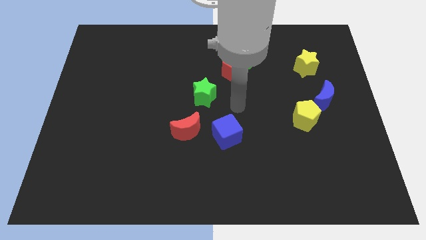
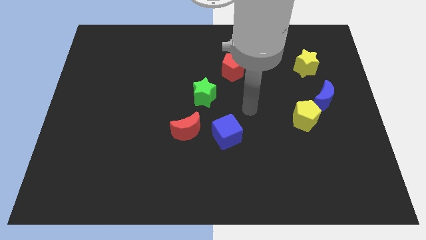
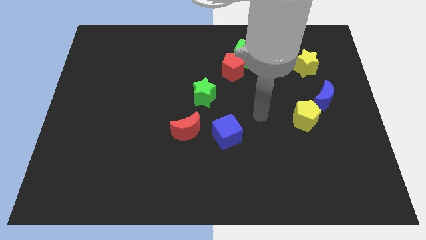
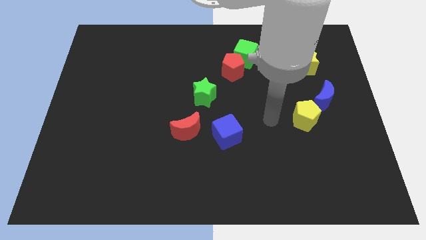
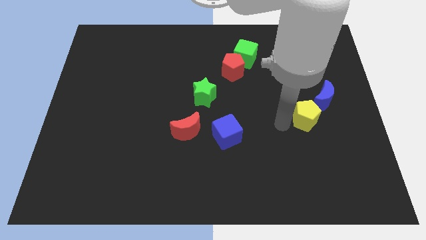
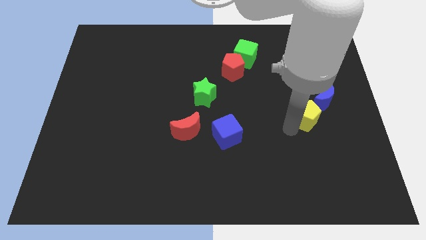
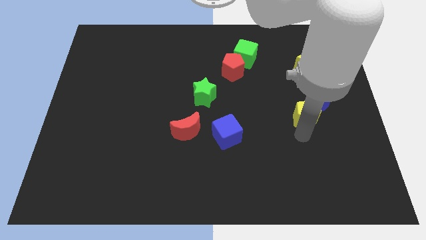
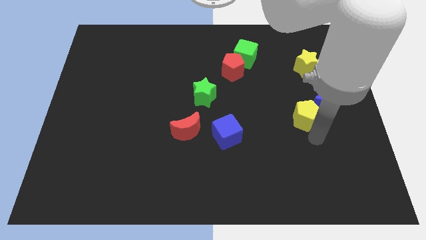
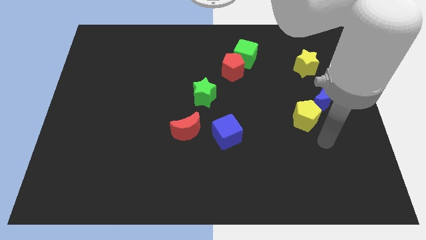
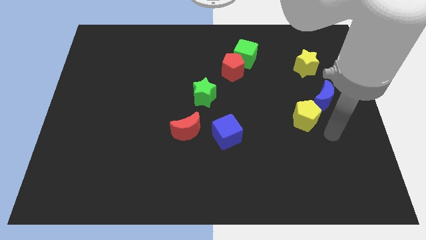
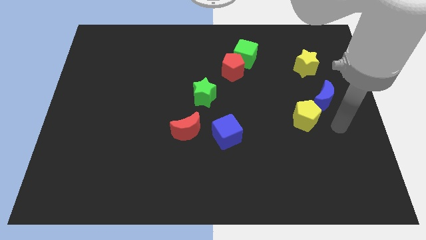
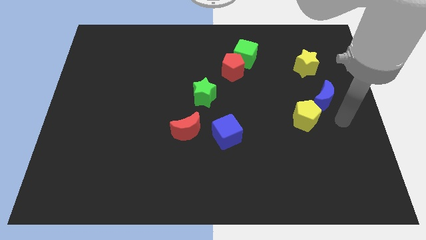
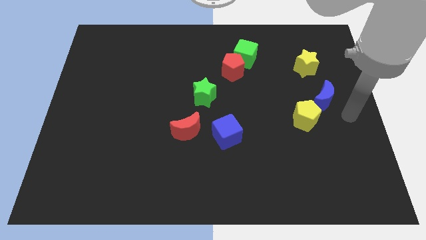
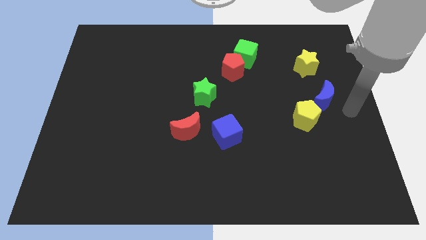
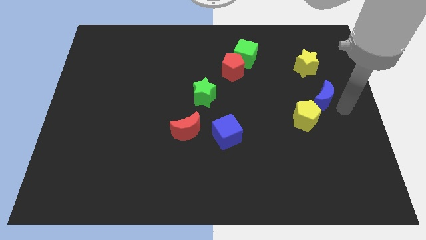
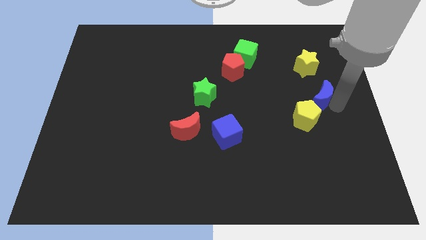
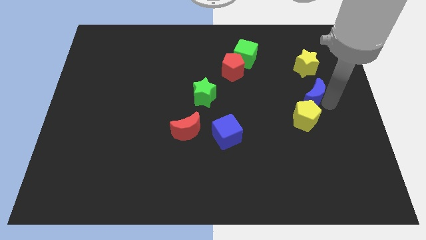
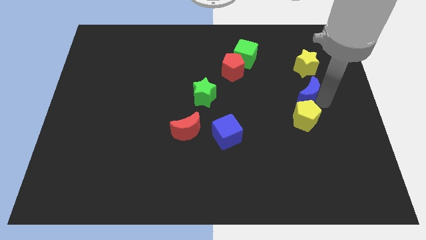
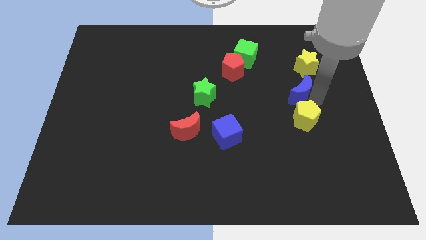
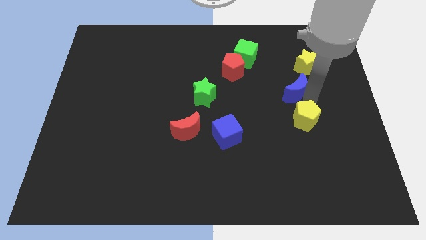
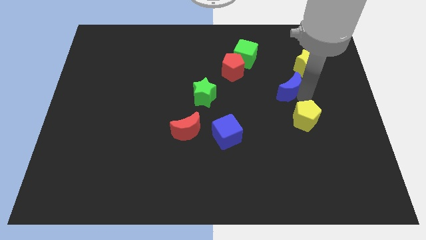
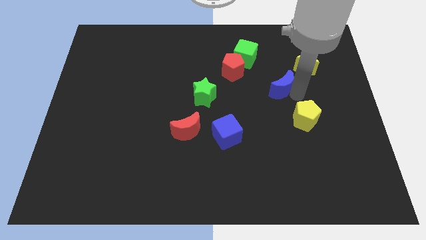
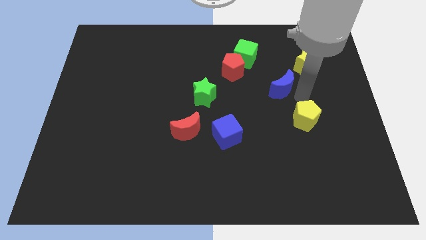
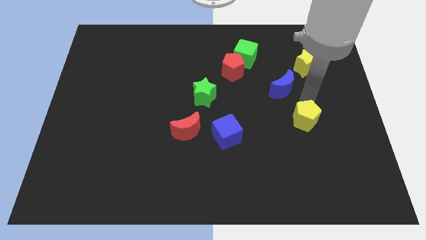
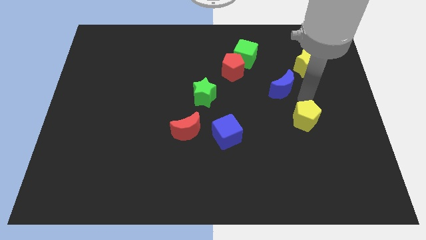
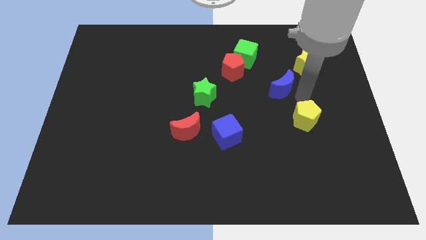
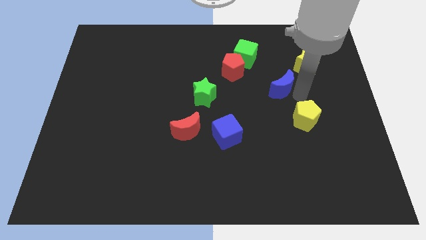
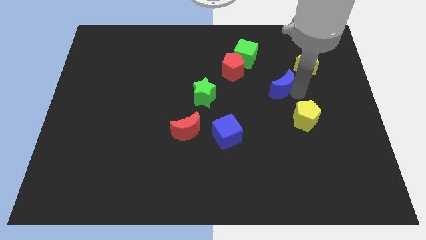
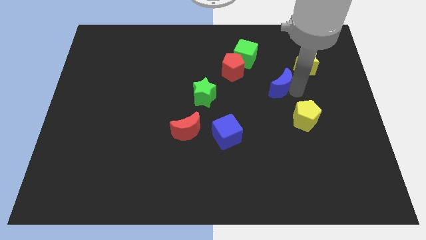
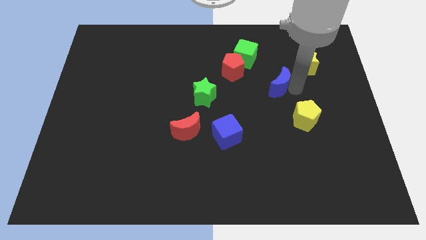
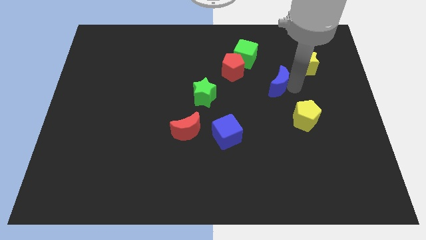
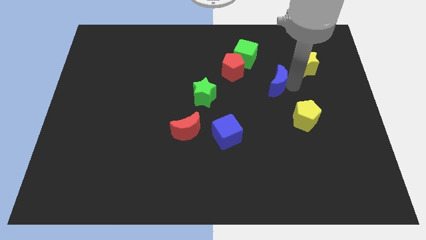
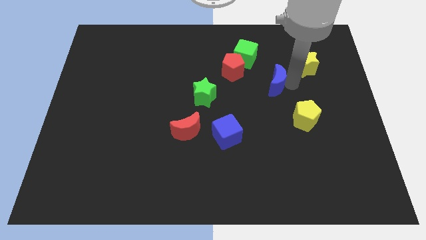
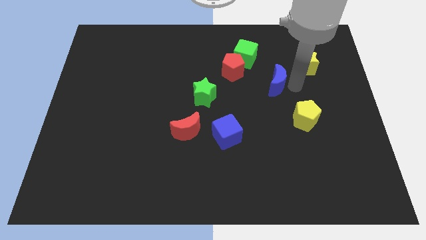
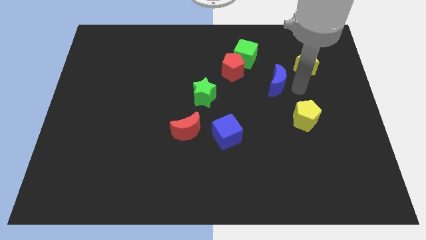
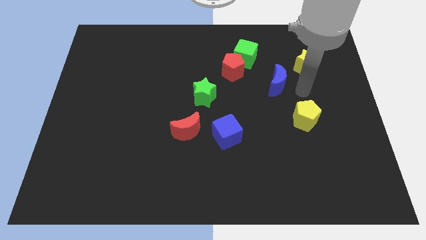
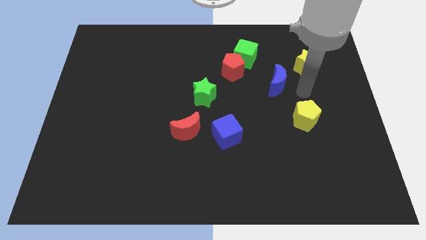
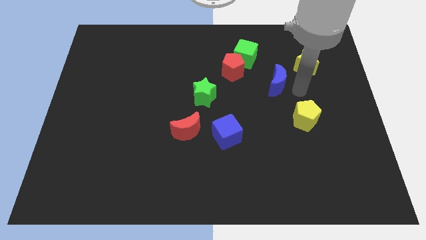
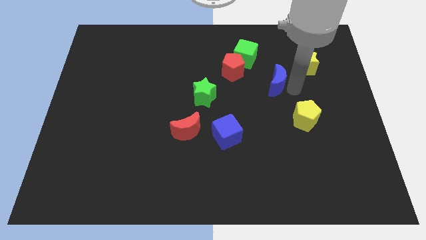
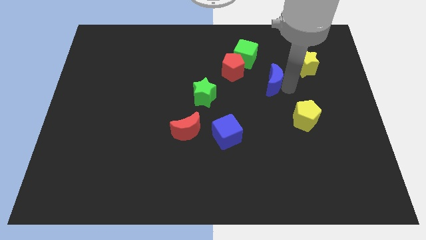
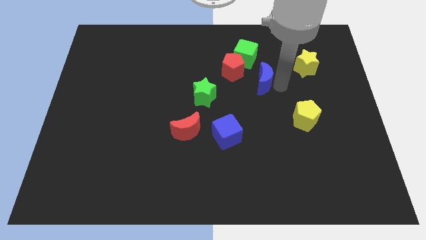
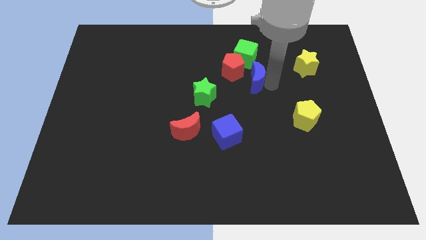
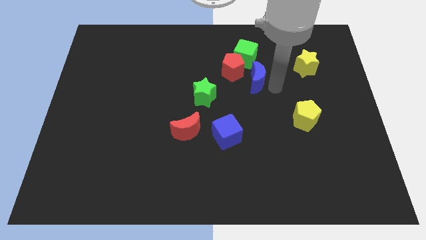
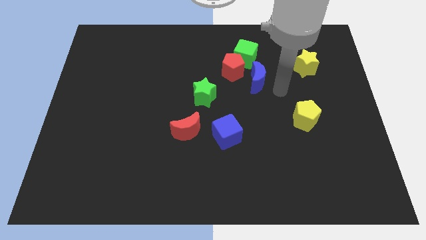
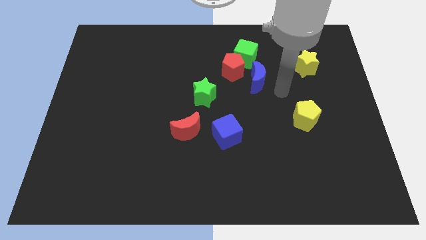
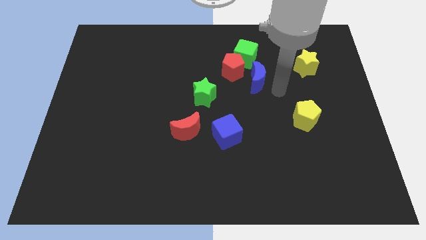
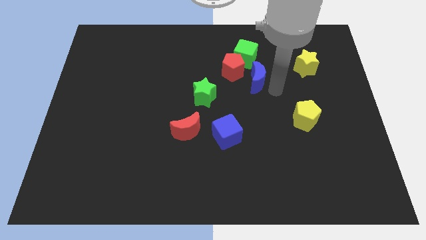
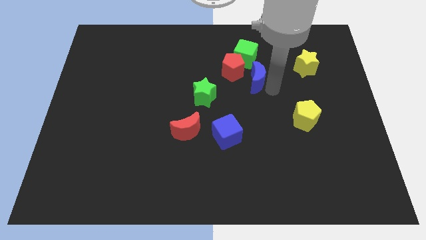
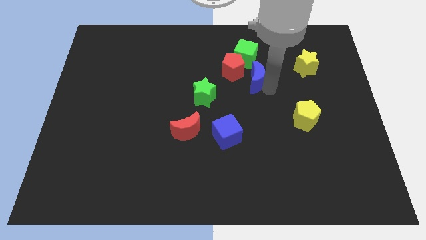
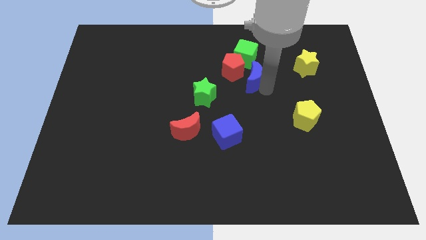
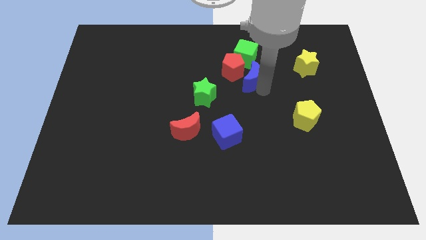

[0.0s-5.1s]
slide the blue moon close to the red pentagon

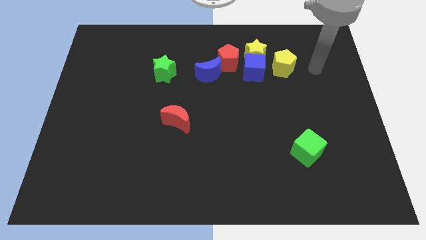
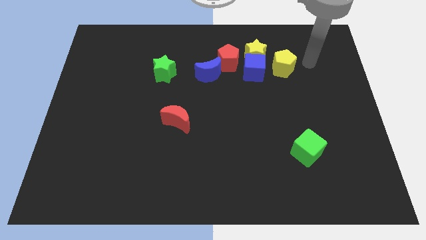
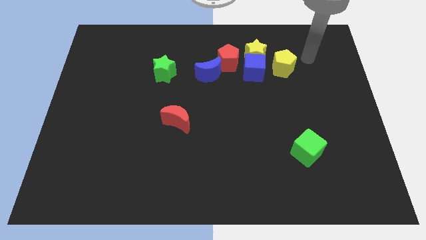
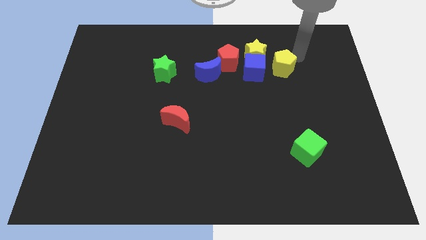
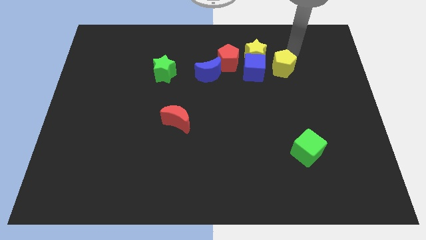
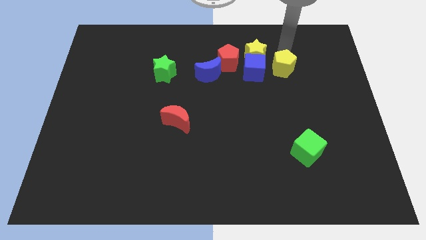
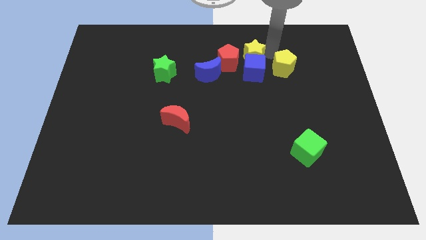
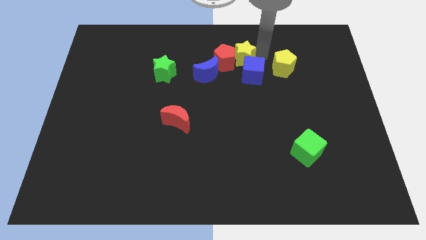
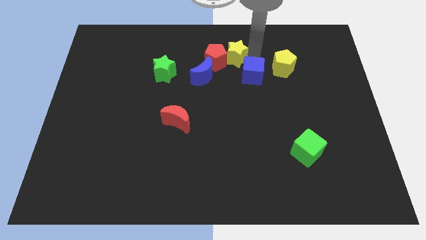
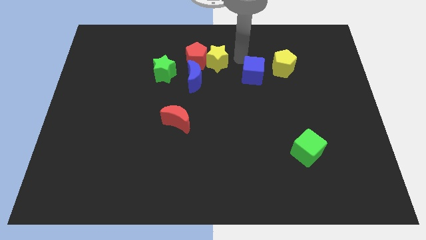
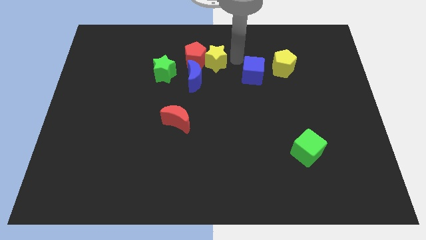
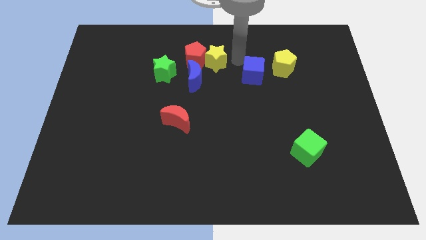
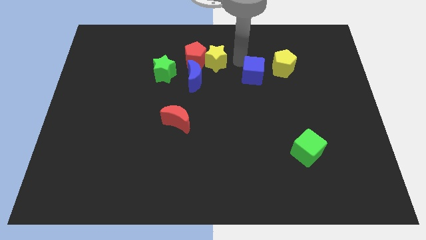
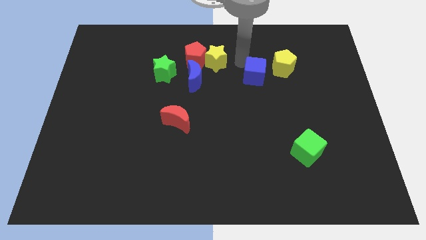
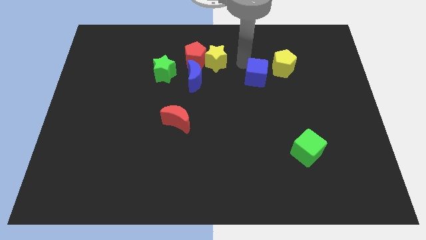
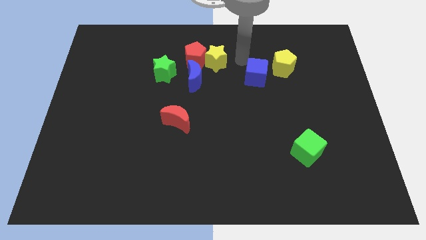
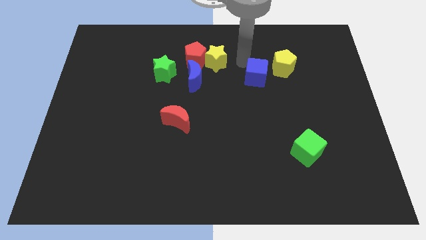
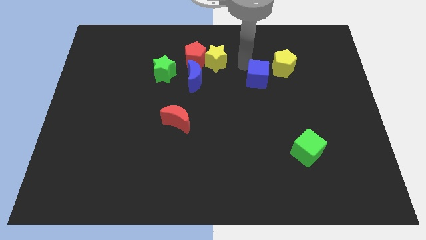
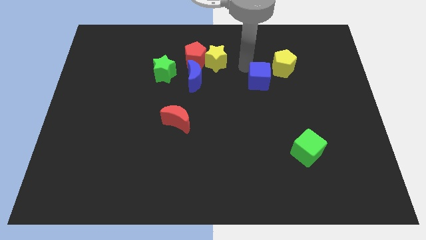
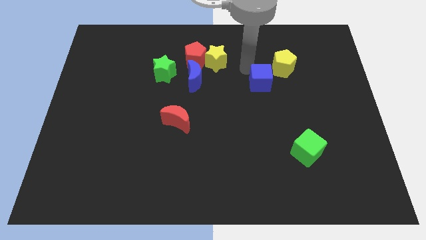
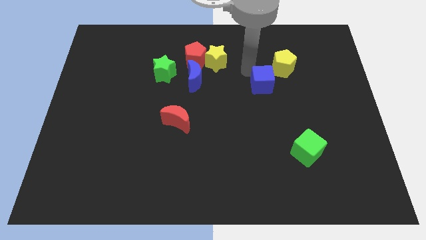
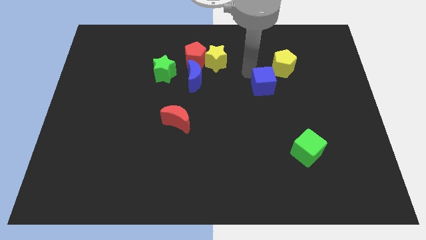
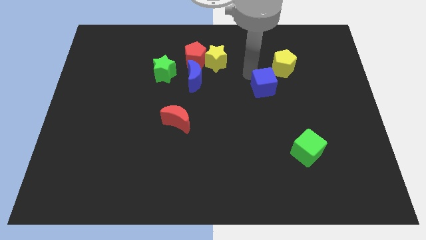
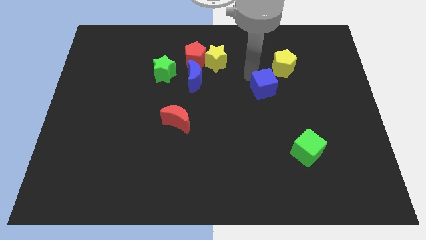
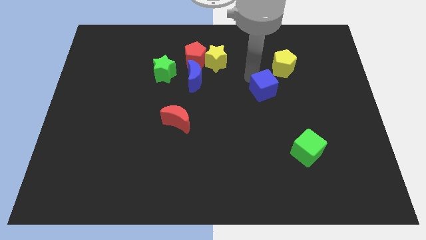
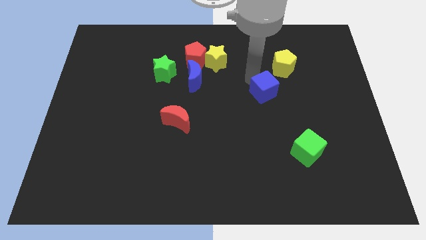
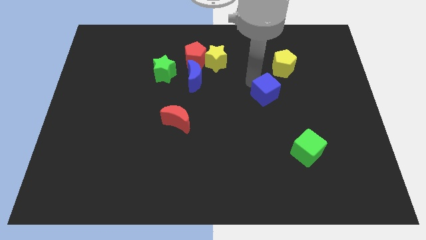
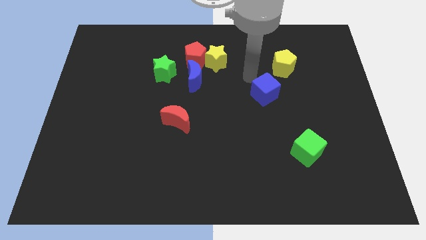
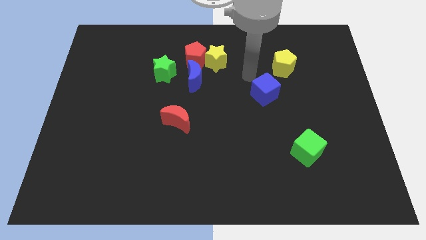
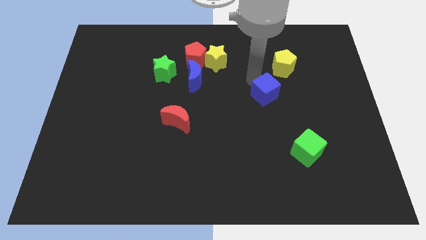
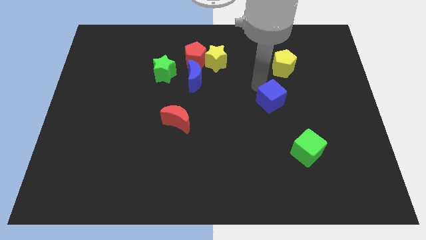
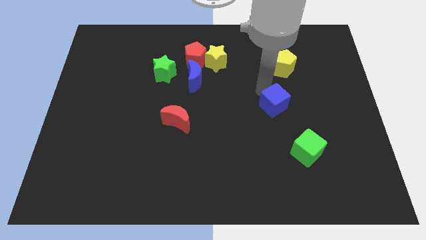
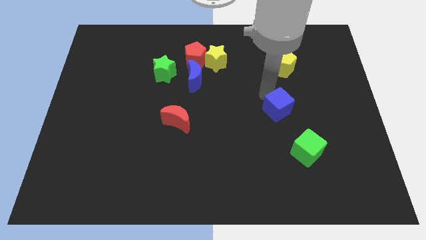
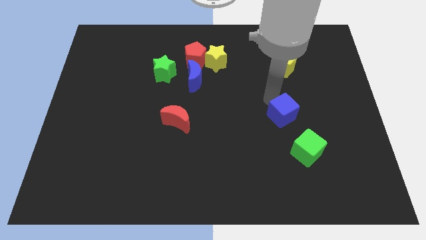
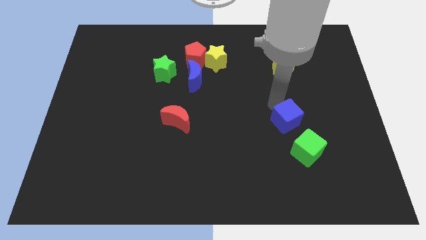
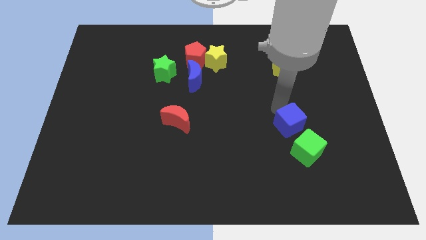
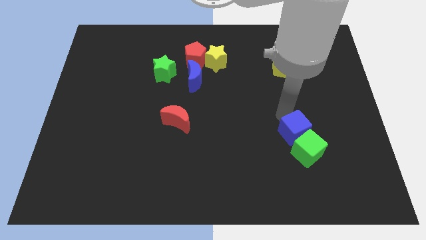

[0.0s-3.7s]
push the blue cube to the green cube
